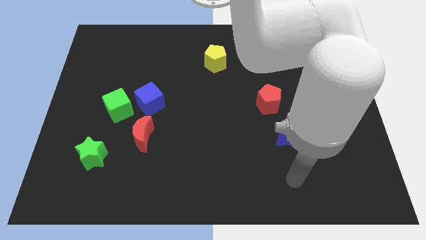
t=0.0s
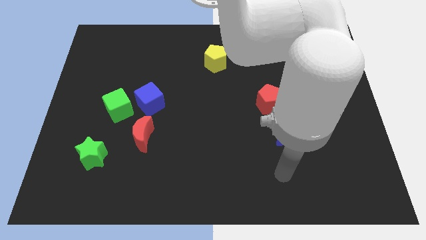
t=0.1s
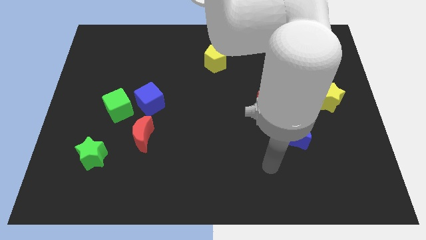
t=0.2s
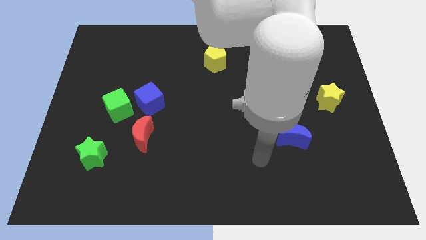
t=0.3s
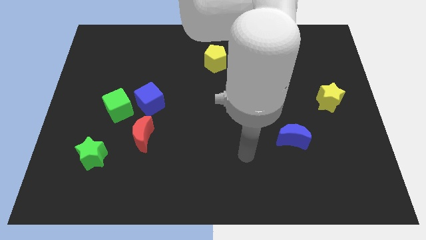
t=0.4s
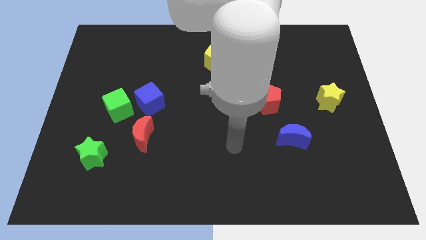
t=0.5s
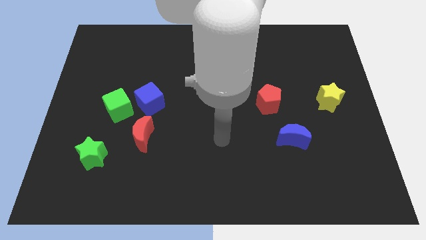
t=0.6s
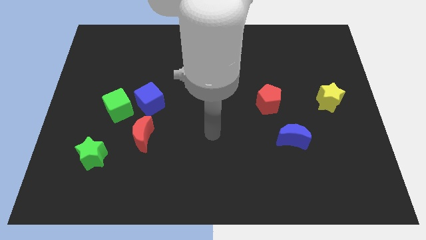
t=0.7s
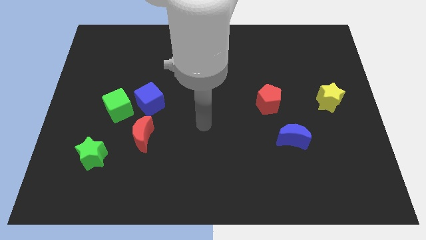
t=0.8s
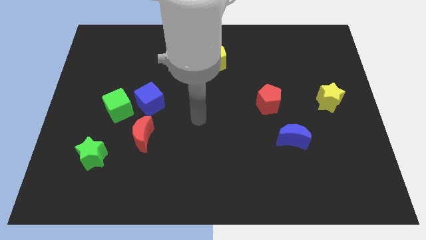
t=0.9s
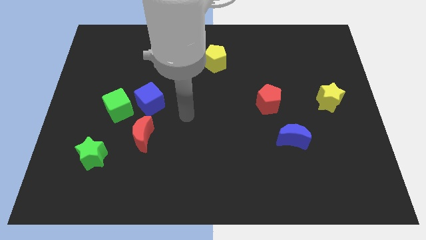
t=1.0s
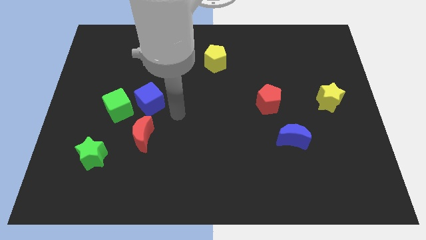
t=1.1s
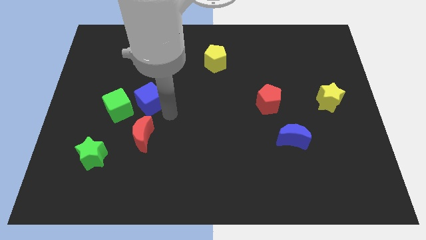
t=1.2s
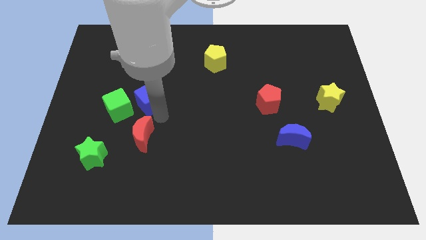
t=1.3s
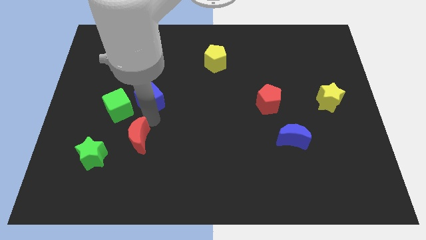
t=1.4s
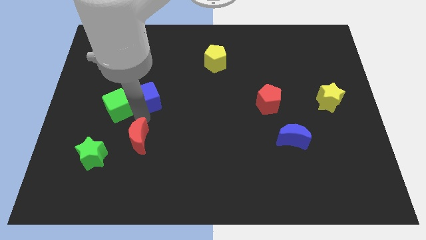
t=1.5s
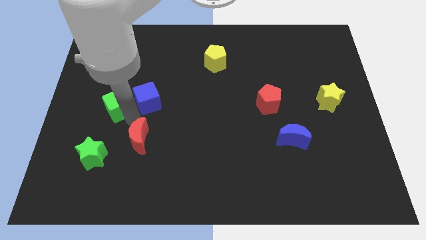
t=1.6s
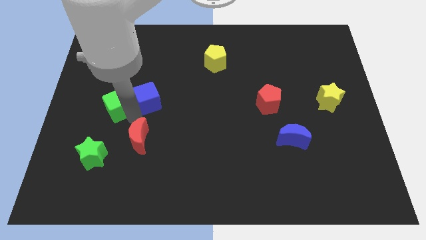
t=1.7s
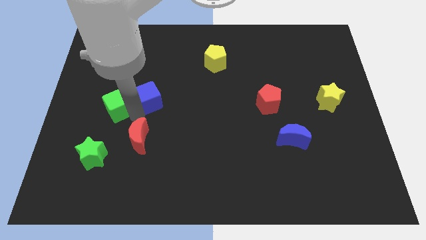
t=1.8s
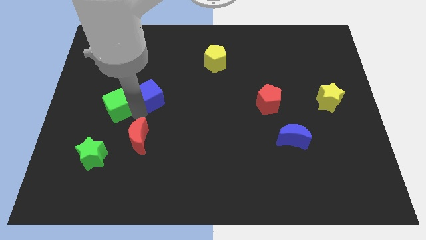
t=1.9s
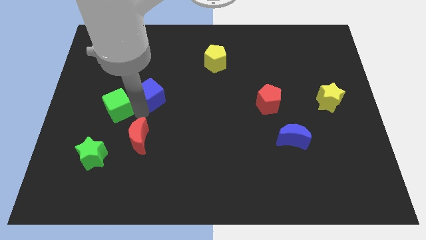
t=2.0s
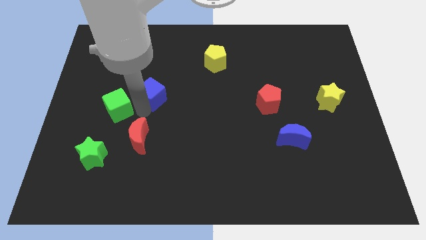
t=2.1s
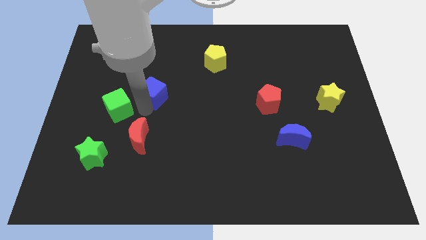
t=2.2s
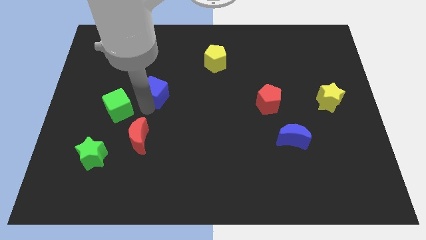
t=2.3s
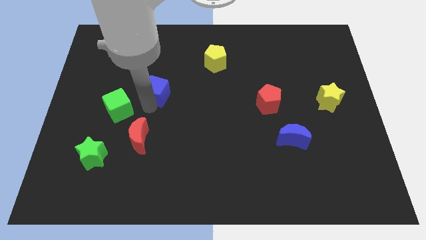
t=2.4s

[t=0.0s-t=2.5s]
move the blue cube away from the green cube and red moon

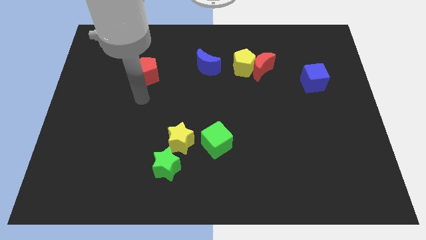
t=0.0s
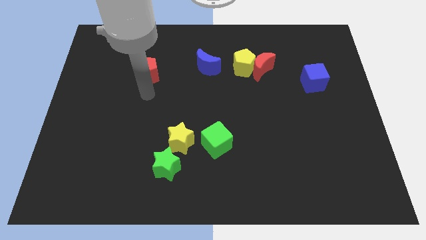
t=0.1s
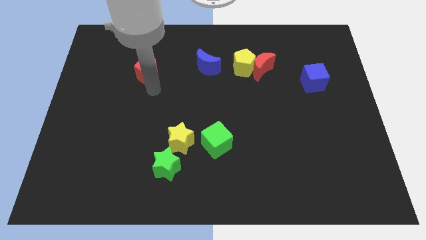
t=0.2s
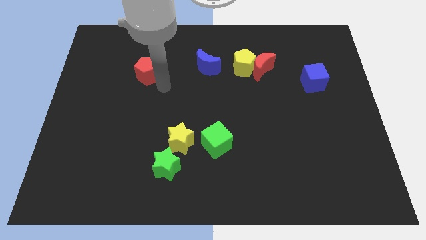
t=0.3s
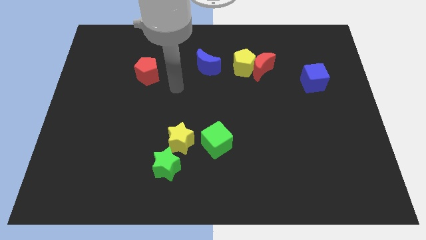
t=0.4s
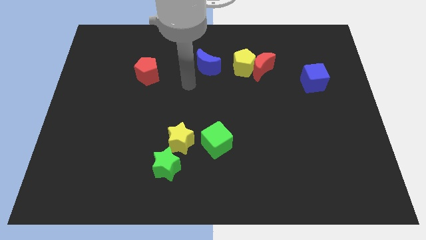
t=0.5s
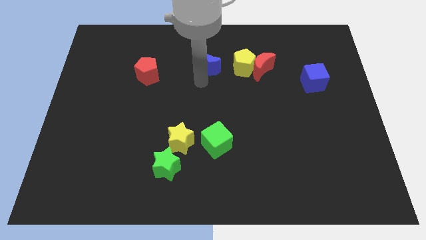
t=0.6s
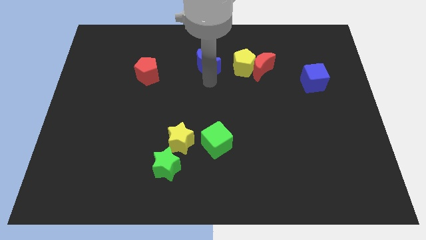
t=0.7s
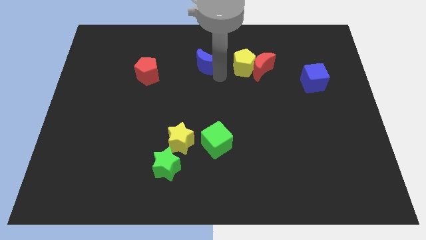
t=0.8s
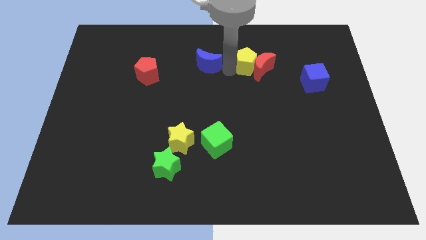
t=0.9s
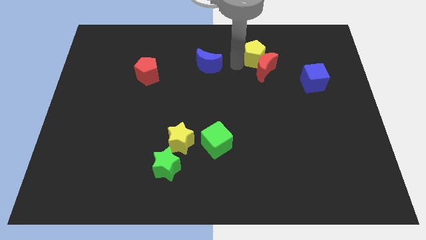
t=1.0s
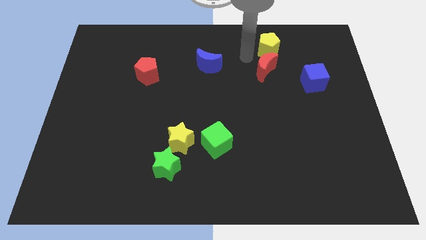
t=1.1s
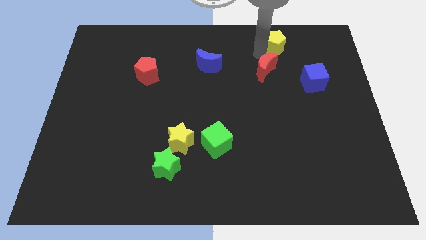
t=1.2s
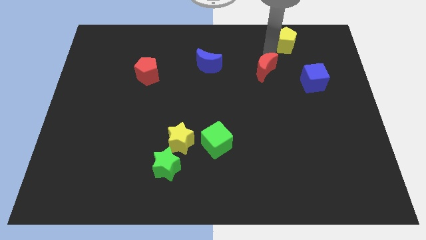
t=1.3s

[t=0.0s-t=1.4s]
pull the red moon apart from the yellow pentagon

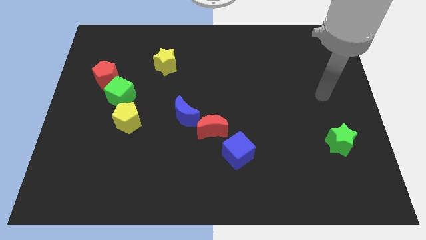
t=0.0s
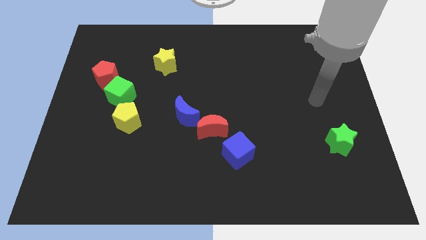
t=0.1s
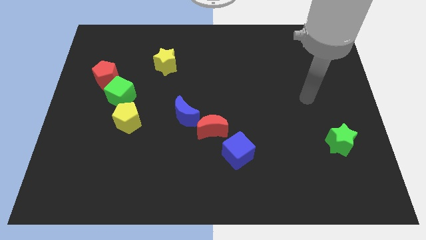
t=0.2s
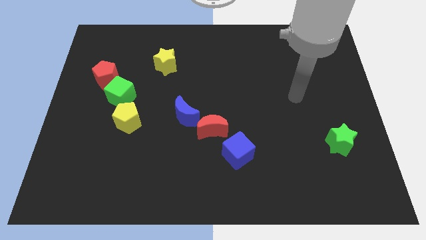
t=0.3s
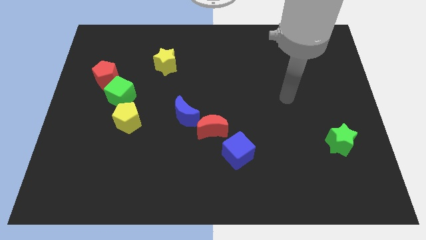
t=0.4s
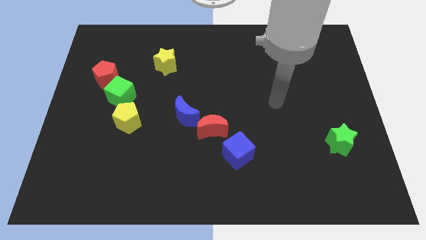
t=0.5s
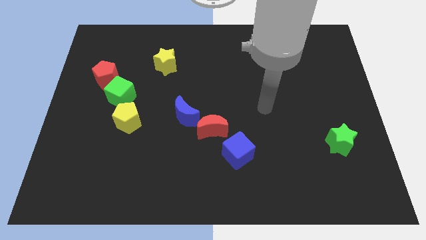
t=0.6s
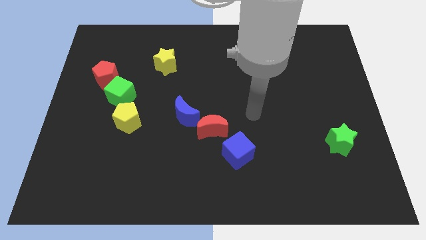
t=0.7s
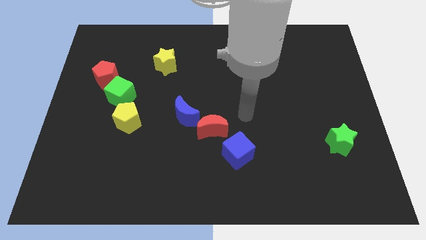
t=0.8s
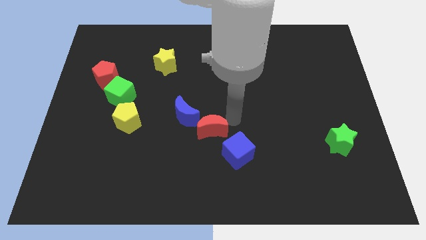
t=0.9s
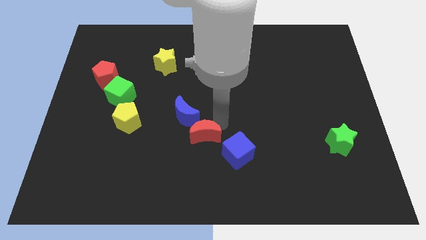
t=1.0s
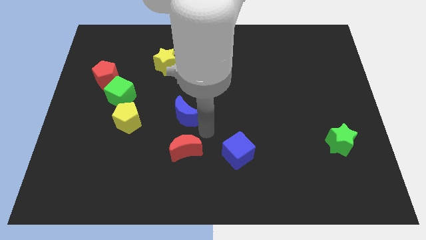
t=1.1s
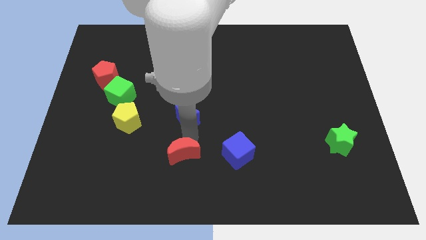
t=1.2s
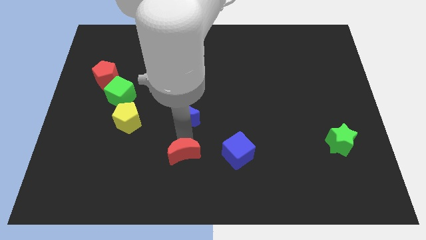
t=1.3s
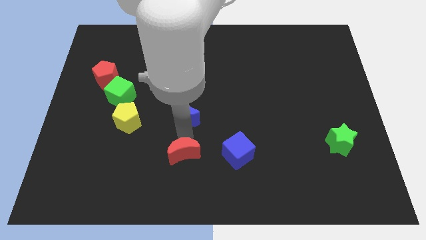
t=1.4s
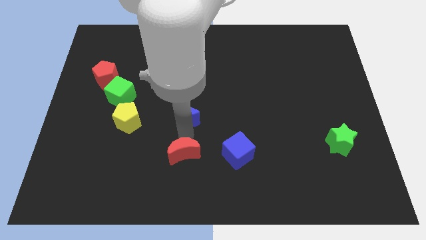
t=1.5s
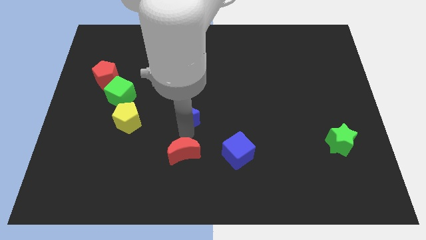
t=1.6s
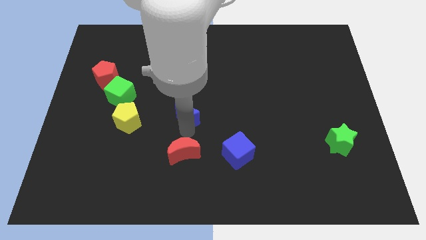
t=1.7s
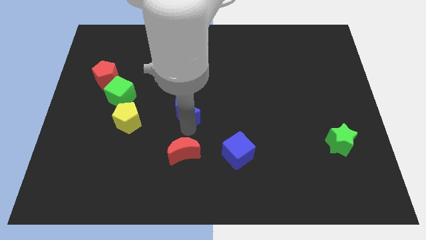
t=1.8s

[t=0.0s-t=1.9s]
pull the blue moon apart from the red moon

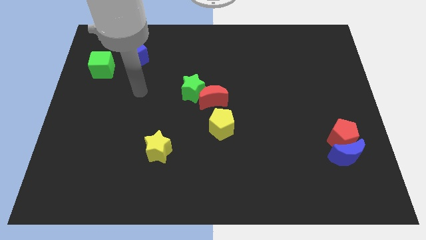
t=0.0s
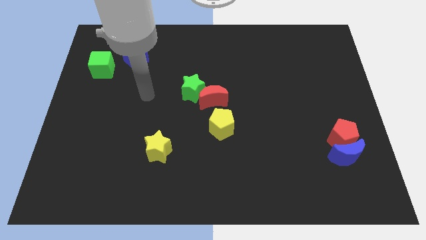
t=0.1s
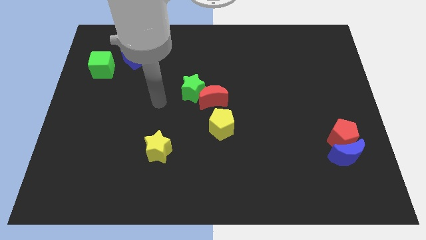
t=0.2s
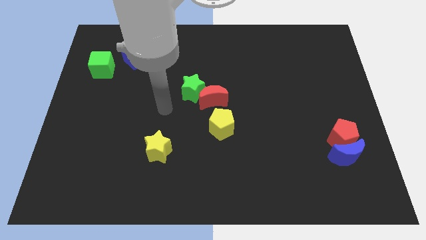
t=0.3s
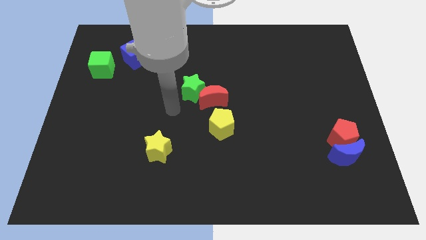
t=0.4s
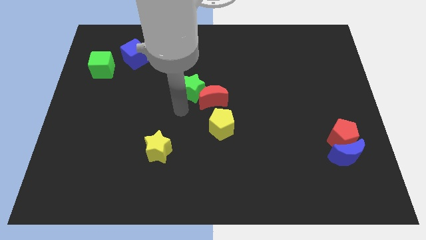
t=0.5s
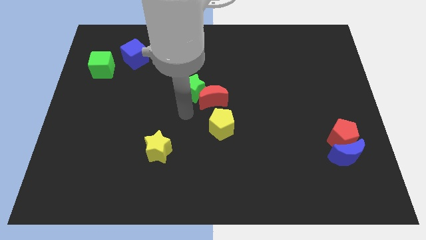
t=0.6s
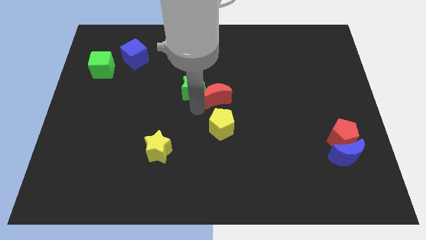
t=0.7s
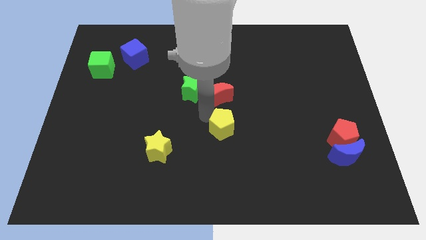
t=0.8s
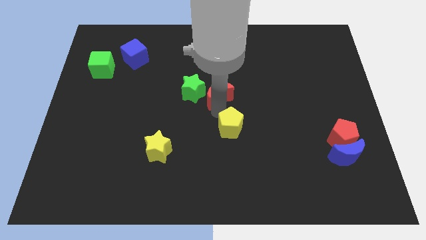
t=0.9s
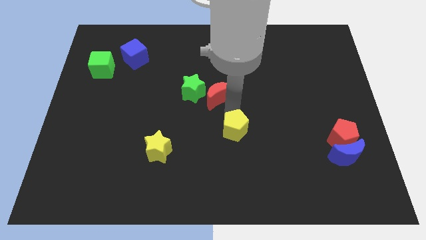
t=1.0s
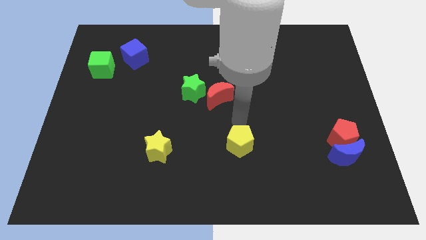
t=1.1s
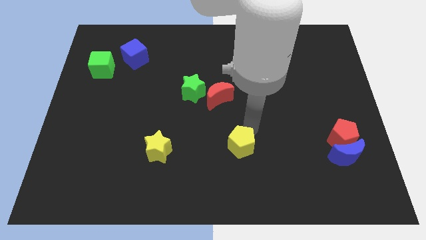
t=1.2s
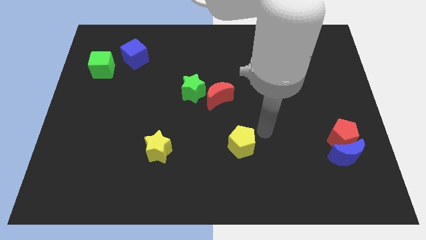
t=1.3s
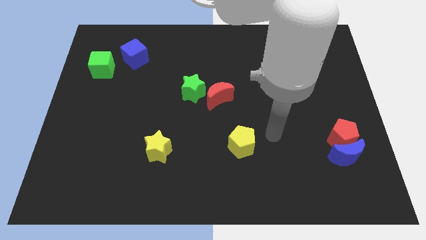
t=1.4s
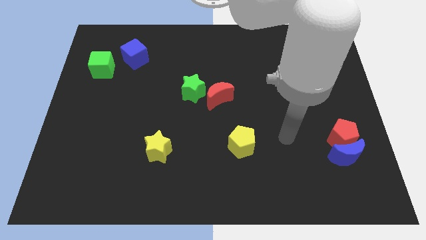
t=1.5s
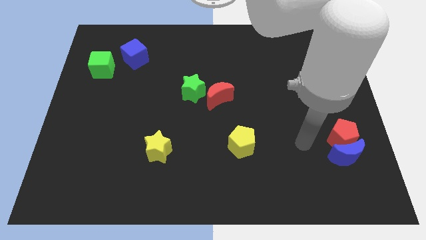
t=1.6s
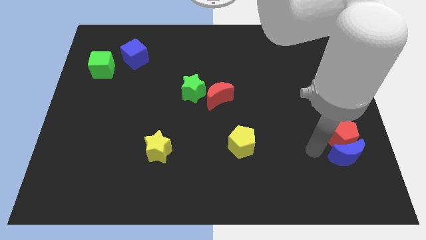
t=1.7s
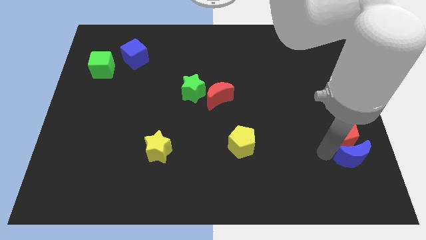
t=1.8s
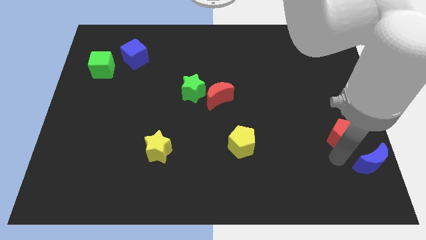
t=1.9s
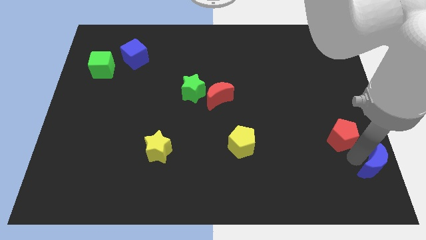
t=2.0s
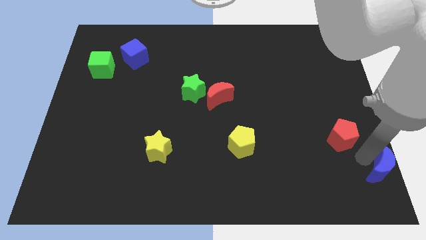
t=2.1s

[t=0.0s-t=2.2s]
separate the red pentagon from the blue moon

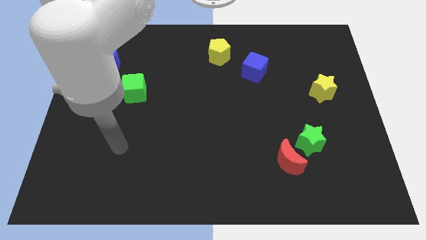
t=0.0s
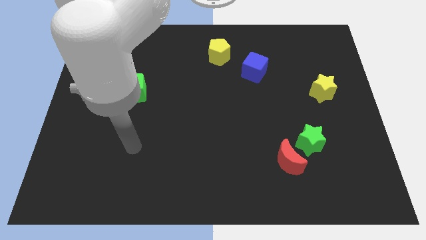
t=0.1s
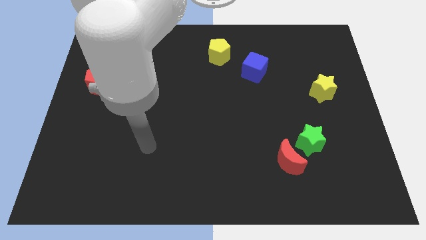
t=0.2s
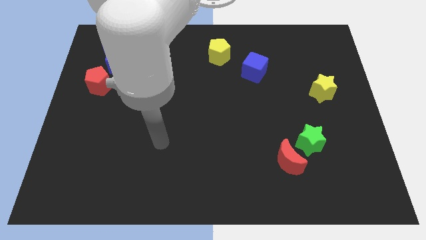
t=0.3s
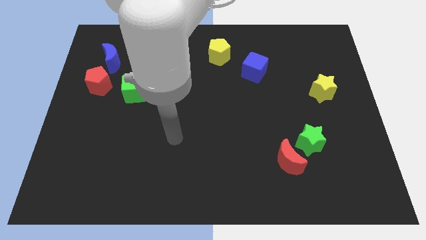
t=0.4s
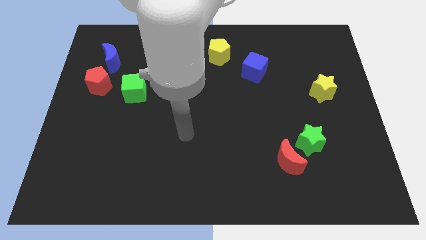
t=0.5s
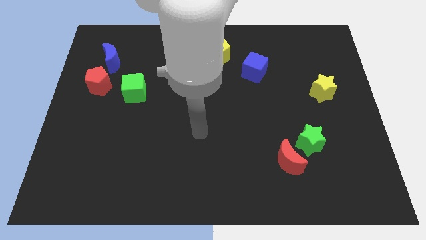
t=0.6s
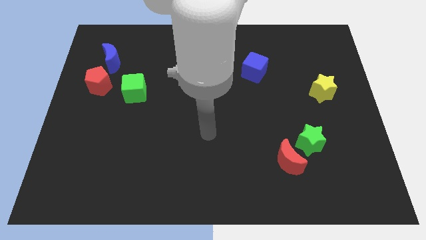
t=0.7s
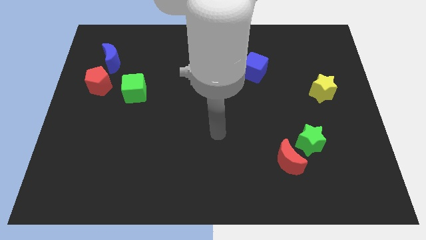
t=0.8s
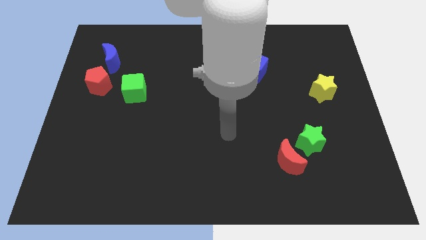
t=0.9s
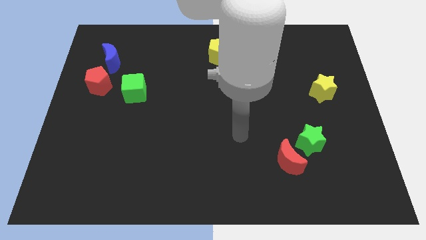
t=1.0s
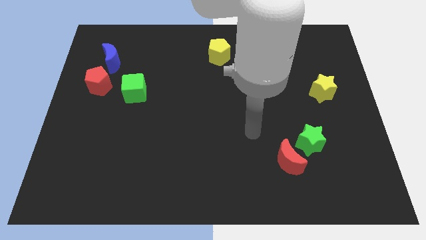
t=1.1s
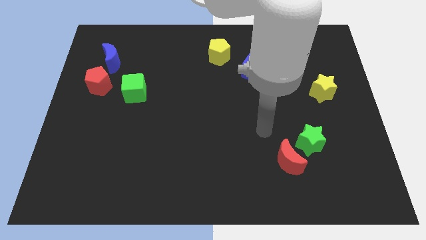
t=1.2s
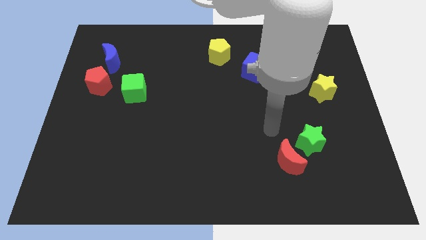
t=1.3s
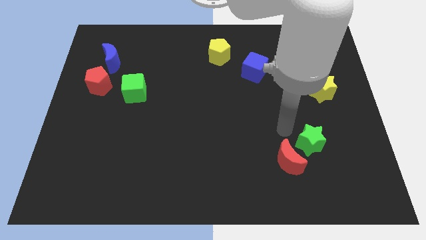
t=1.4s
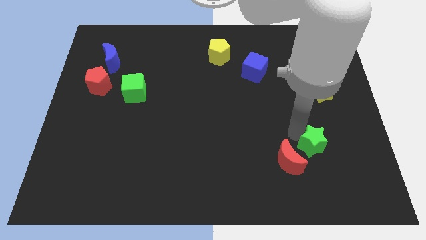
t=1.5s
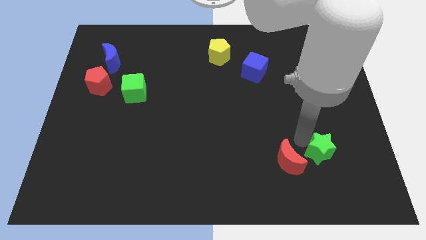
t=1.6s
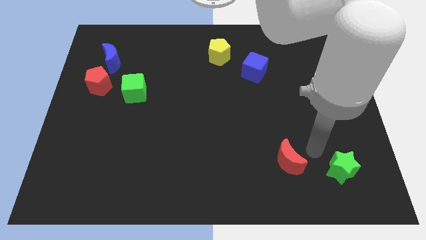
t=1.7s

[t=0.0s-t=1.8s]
separate the red moon from the green star
